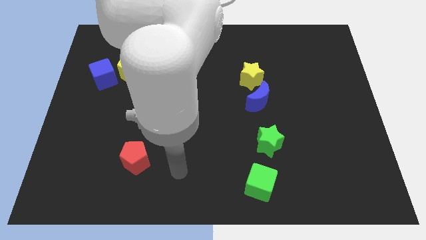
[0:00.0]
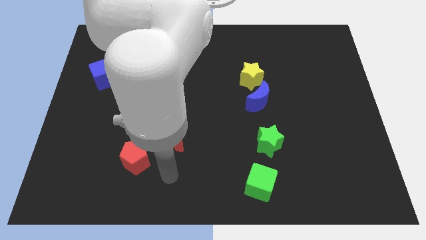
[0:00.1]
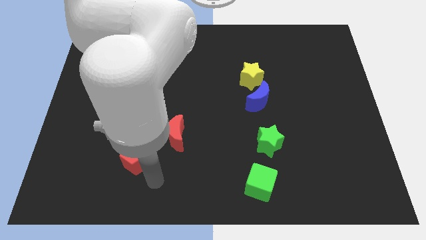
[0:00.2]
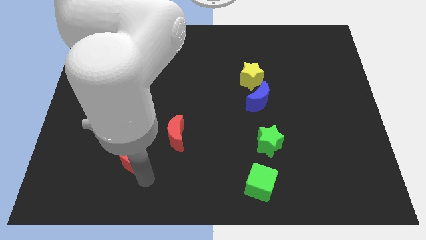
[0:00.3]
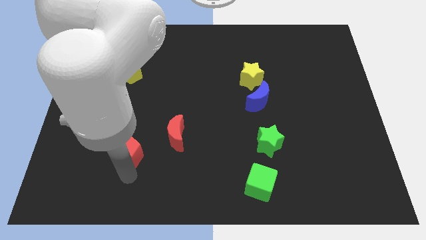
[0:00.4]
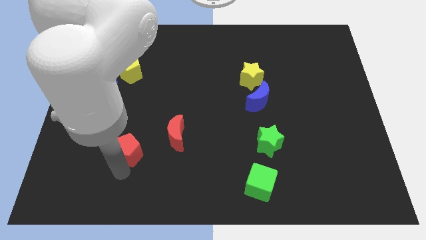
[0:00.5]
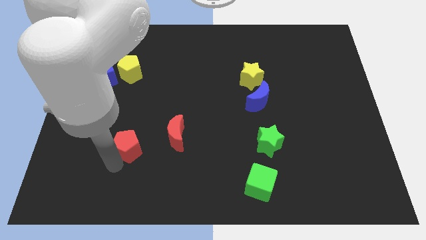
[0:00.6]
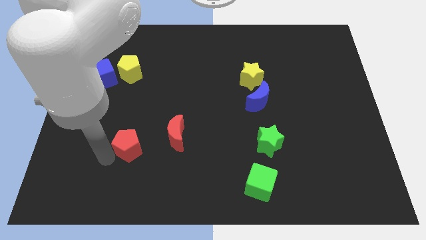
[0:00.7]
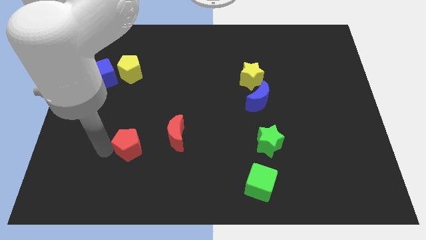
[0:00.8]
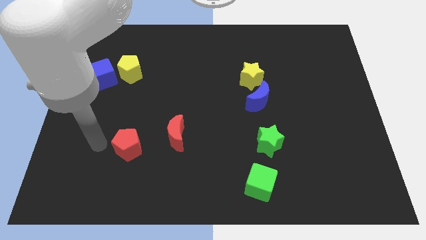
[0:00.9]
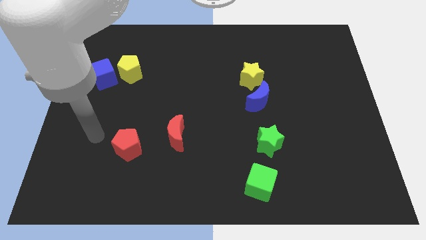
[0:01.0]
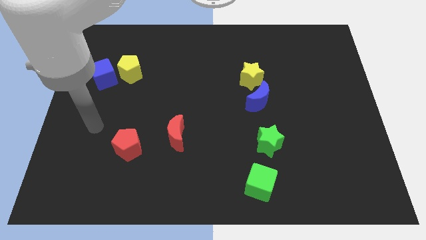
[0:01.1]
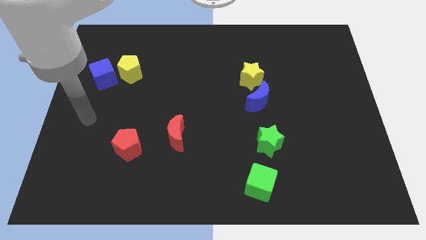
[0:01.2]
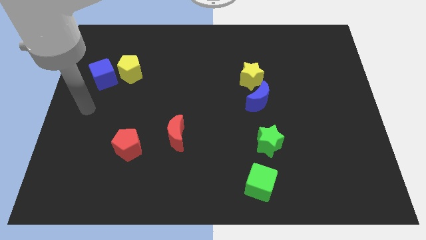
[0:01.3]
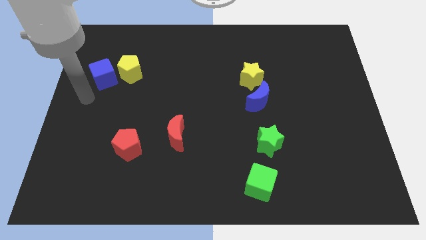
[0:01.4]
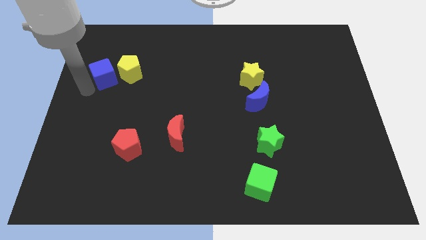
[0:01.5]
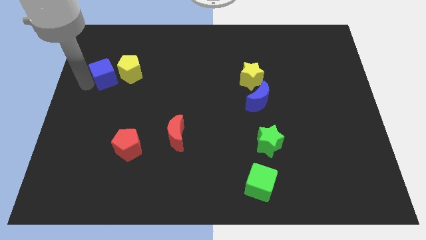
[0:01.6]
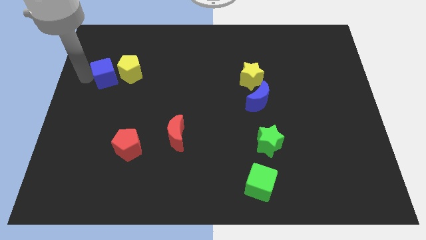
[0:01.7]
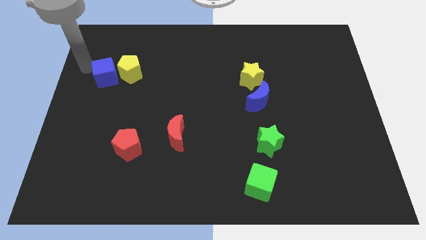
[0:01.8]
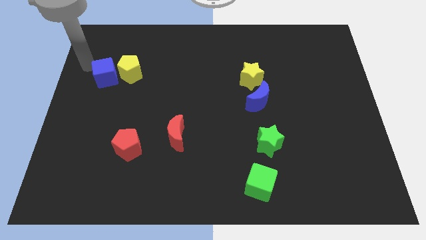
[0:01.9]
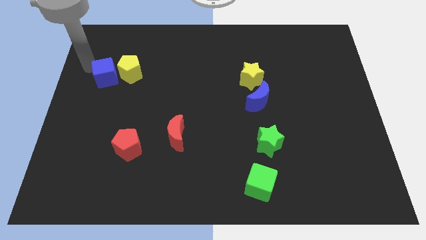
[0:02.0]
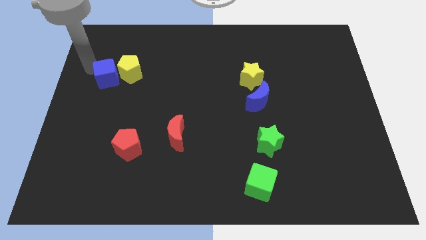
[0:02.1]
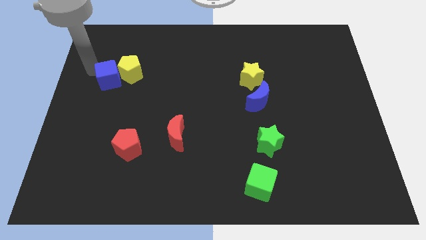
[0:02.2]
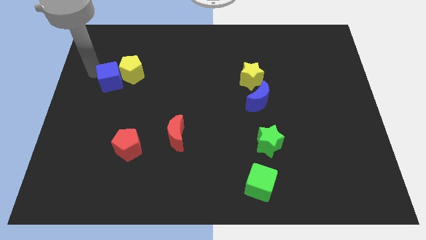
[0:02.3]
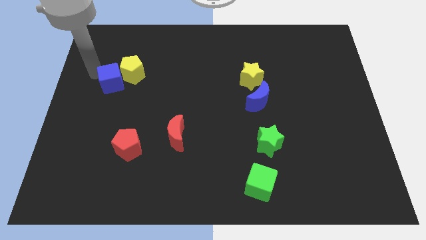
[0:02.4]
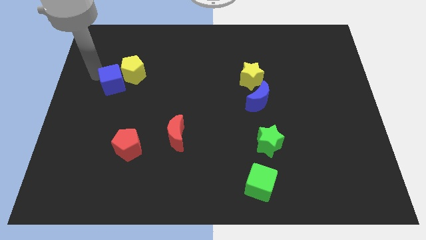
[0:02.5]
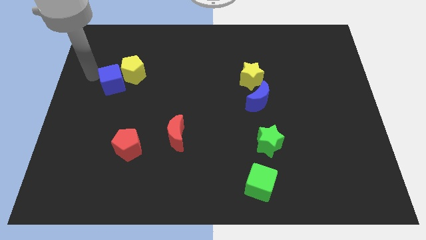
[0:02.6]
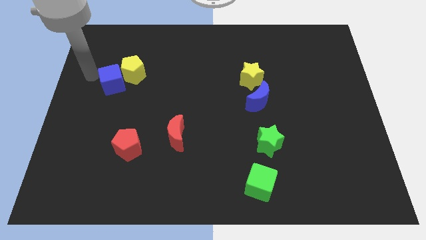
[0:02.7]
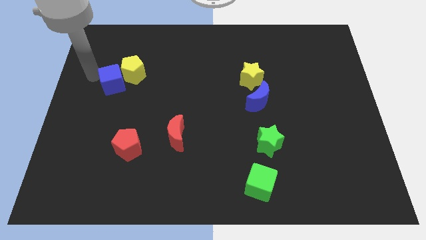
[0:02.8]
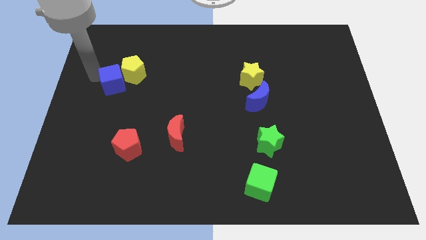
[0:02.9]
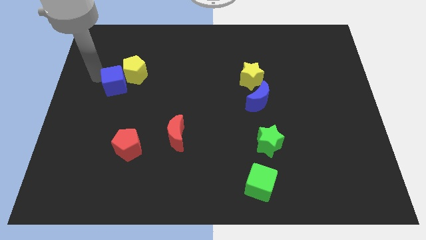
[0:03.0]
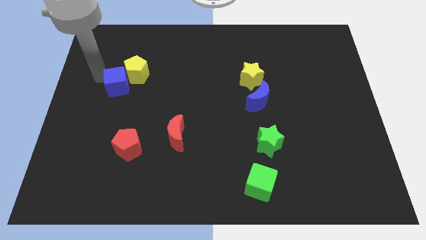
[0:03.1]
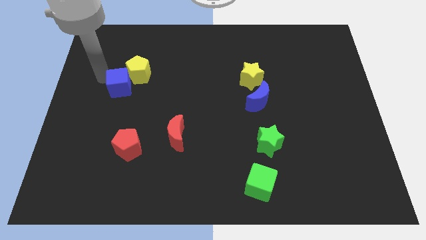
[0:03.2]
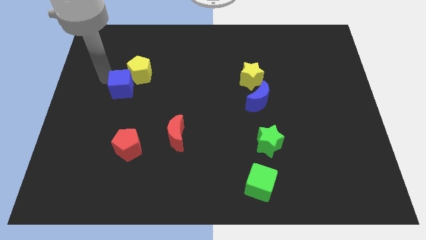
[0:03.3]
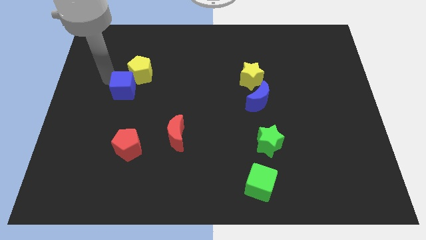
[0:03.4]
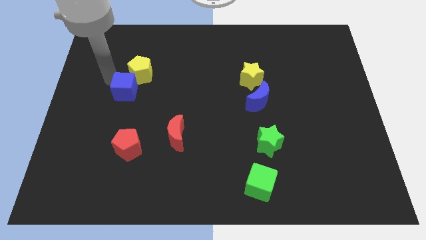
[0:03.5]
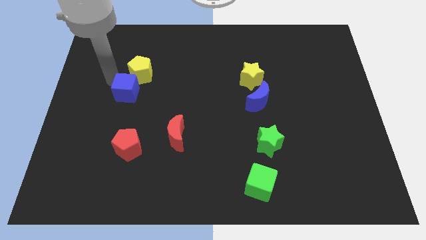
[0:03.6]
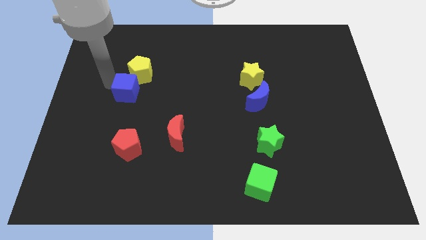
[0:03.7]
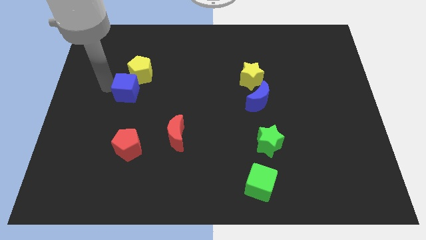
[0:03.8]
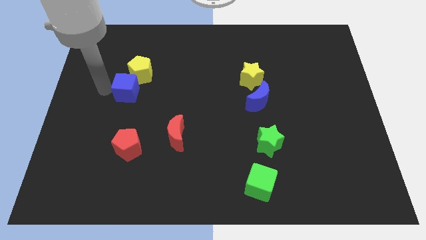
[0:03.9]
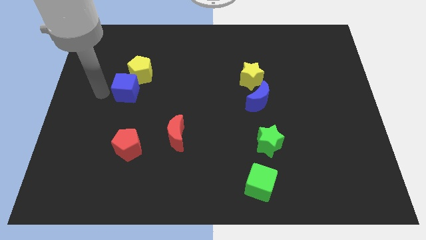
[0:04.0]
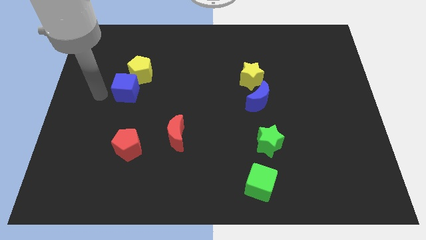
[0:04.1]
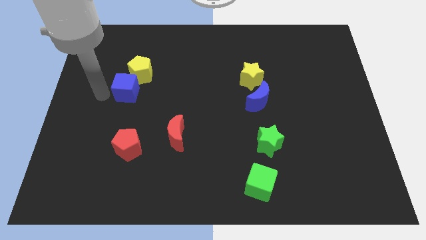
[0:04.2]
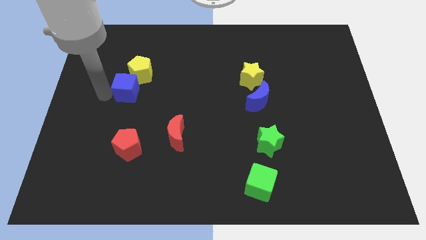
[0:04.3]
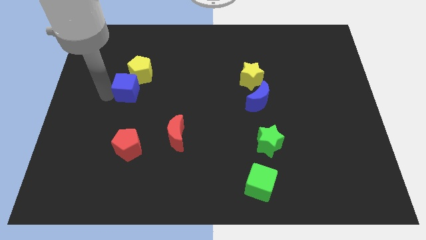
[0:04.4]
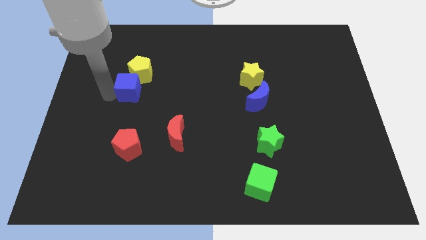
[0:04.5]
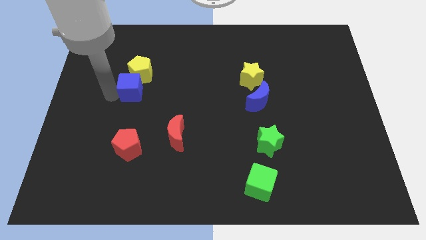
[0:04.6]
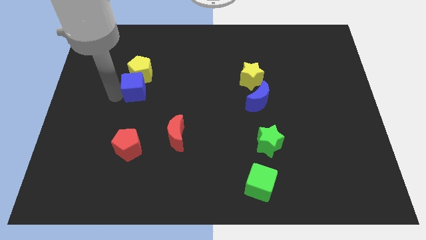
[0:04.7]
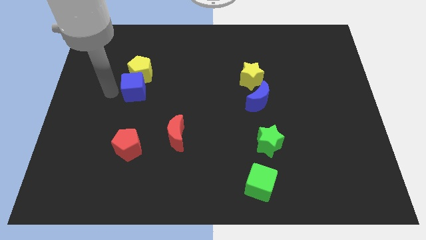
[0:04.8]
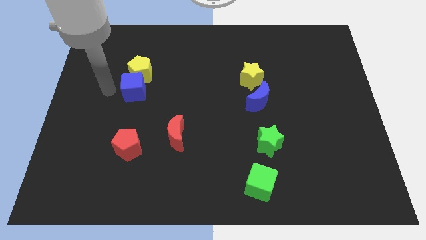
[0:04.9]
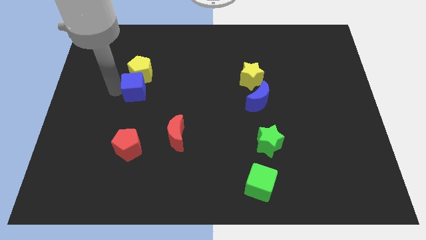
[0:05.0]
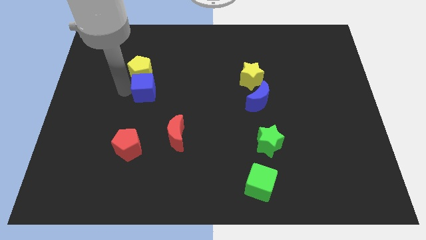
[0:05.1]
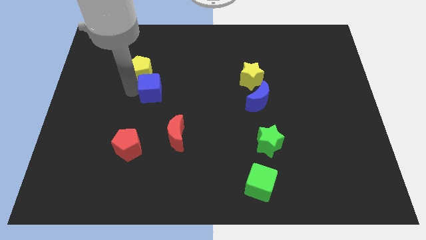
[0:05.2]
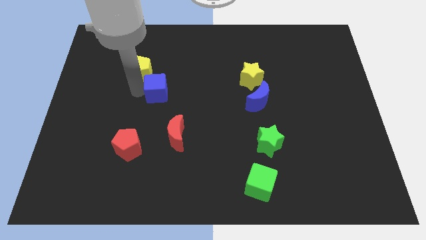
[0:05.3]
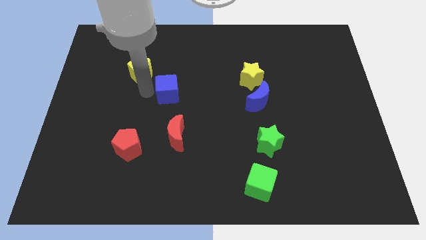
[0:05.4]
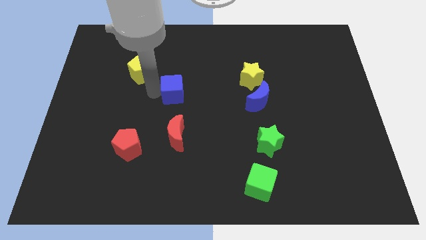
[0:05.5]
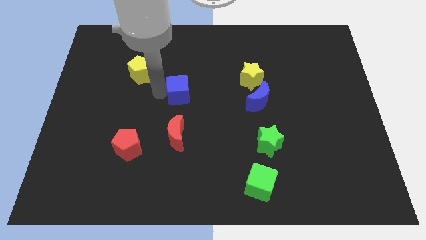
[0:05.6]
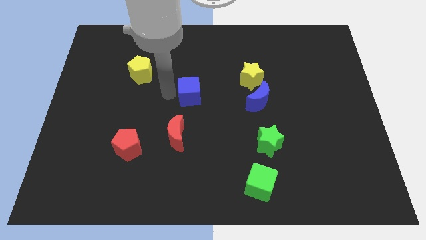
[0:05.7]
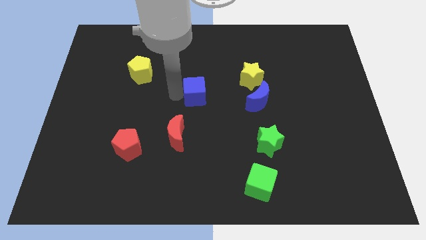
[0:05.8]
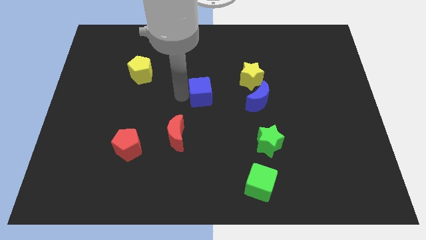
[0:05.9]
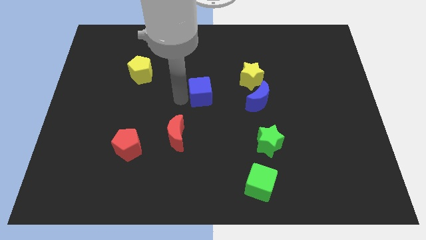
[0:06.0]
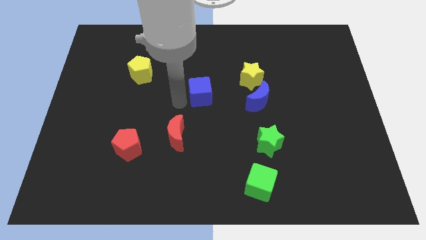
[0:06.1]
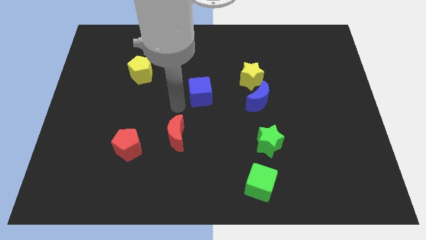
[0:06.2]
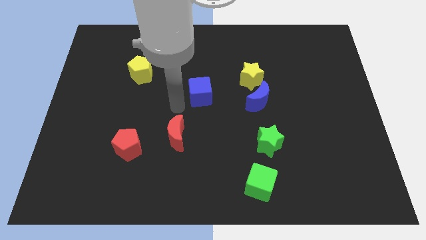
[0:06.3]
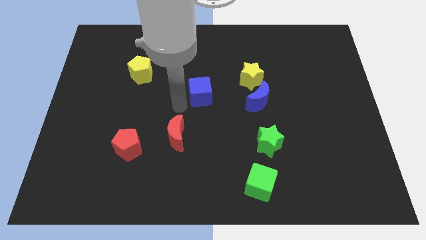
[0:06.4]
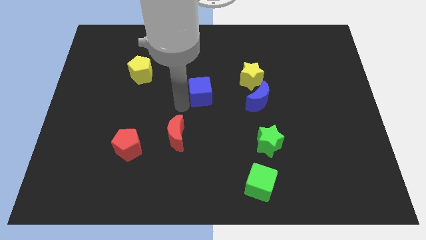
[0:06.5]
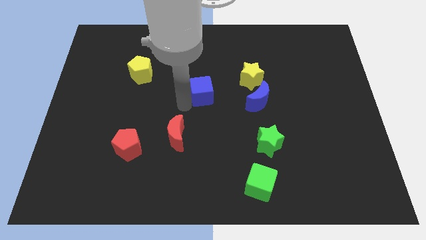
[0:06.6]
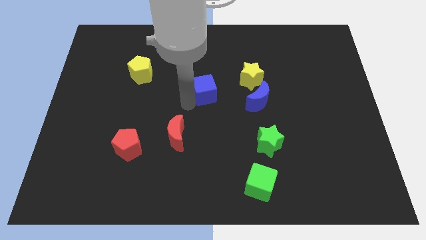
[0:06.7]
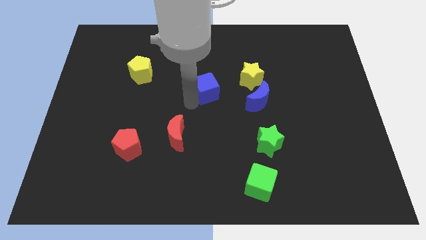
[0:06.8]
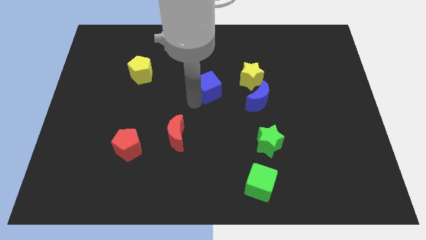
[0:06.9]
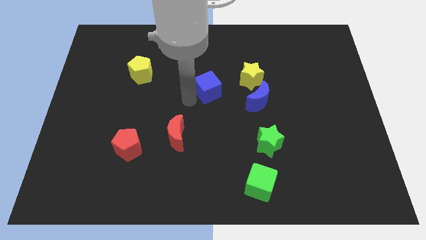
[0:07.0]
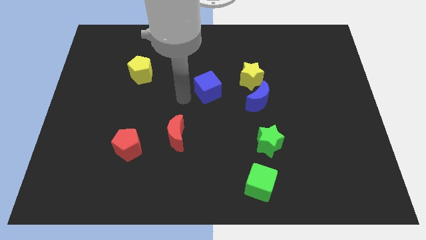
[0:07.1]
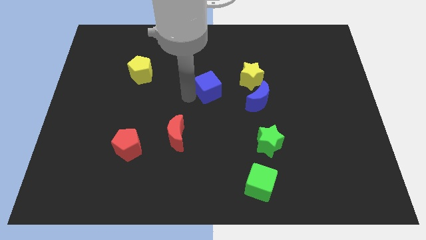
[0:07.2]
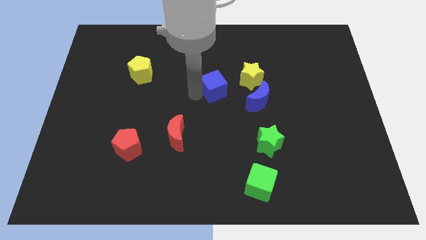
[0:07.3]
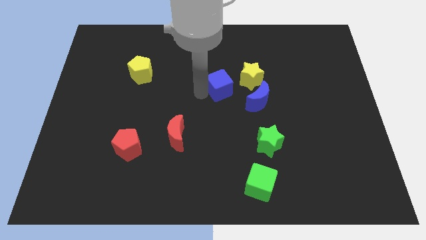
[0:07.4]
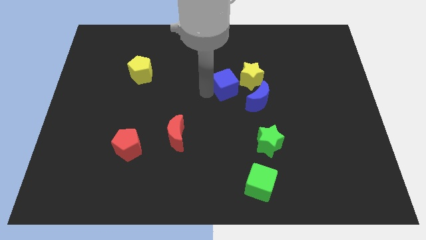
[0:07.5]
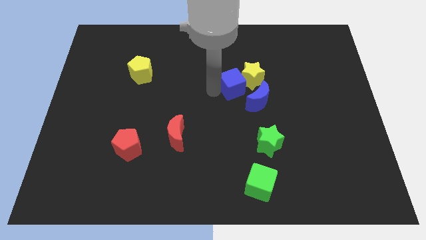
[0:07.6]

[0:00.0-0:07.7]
slide the blue cube towards the yellow star
